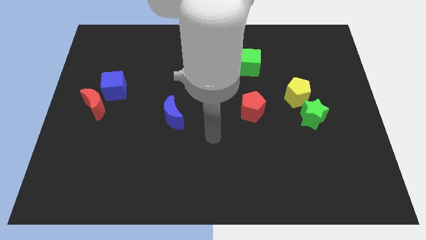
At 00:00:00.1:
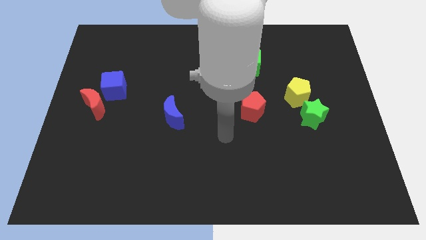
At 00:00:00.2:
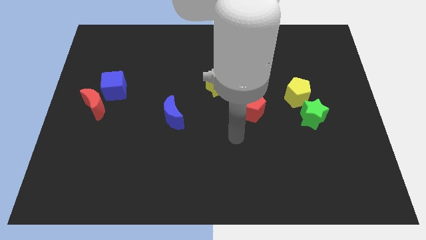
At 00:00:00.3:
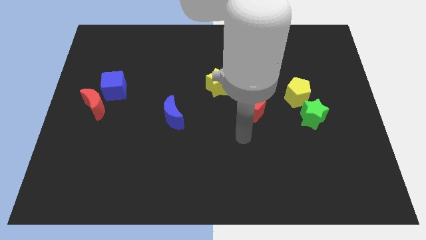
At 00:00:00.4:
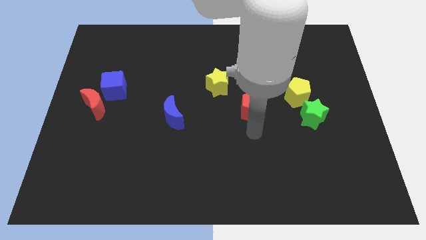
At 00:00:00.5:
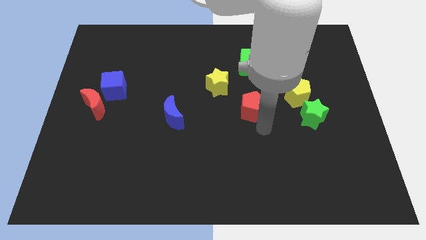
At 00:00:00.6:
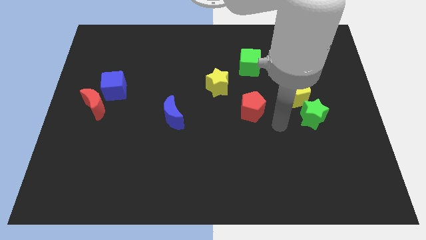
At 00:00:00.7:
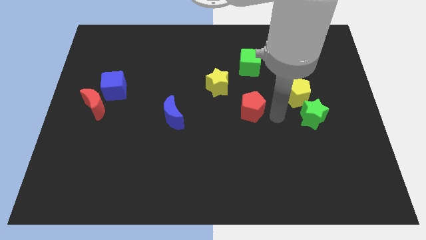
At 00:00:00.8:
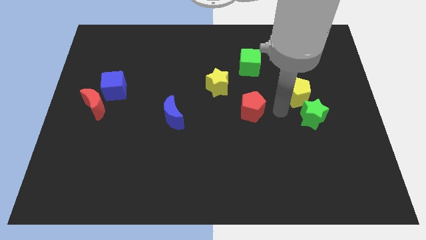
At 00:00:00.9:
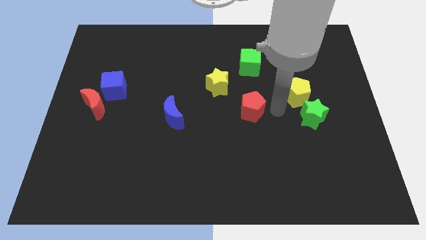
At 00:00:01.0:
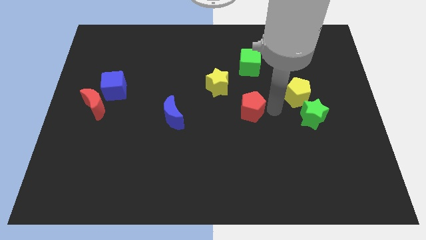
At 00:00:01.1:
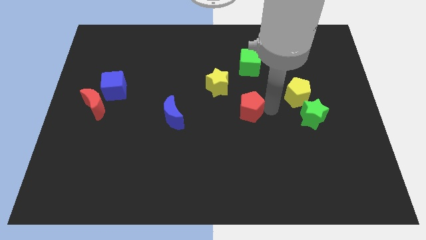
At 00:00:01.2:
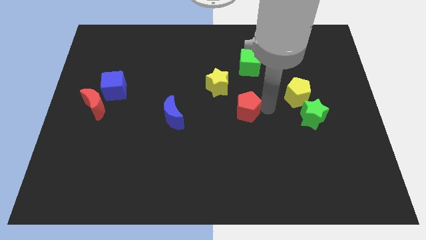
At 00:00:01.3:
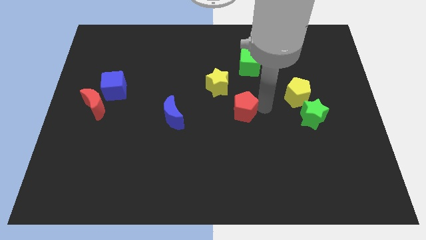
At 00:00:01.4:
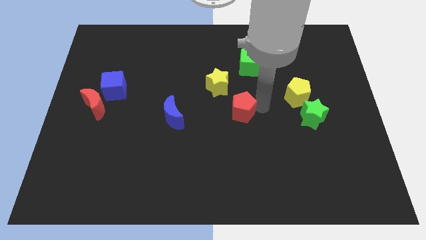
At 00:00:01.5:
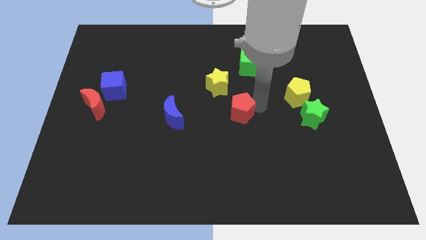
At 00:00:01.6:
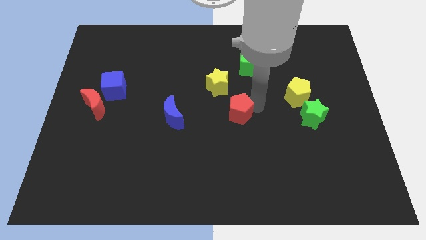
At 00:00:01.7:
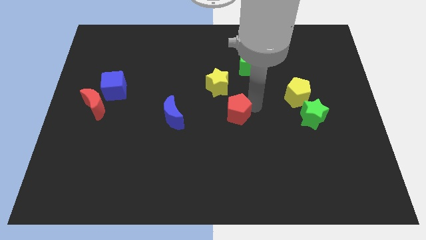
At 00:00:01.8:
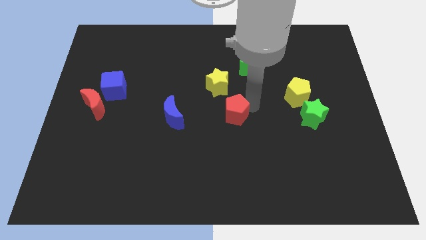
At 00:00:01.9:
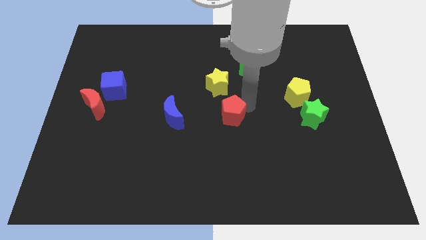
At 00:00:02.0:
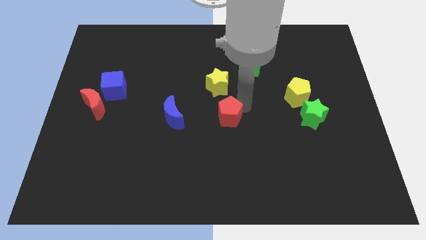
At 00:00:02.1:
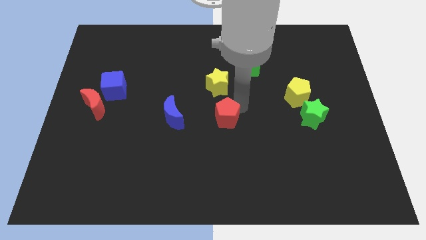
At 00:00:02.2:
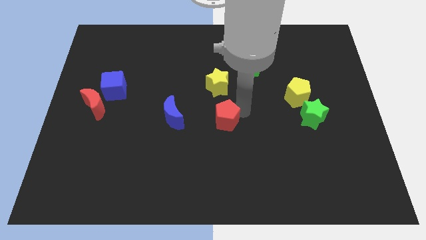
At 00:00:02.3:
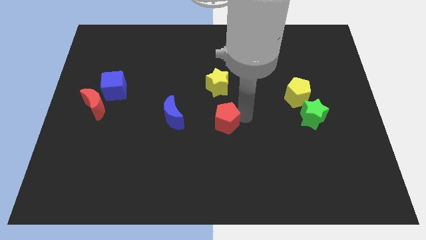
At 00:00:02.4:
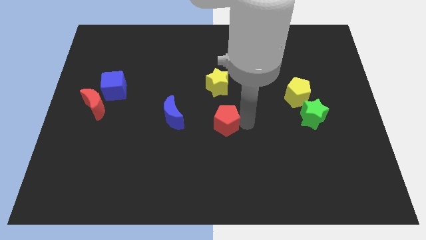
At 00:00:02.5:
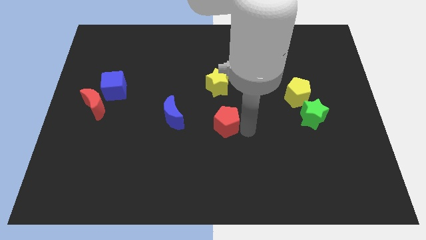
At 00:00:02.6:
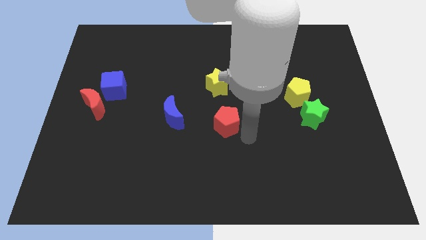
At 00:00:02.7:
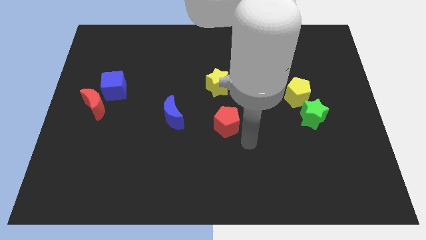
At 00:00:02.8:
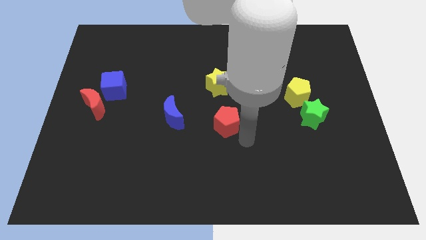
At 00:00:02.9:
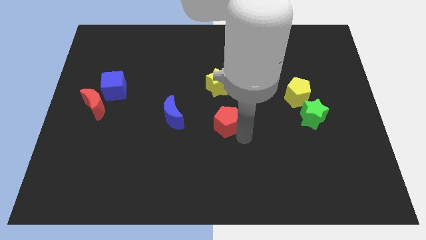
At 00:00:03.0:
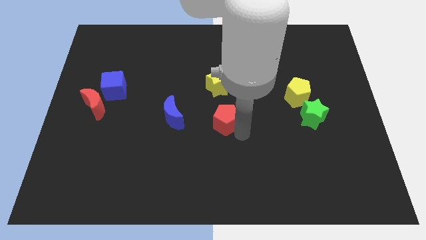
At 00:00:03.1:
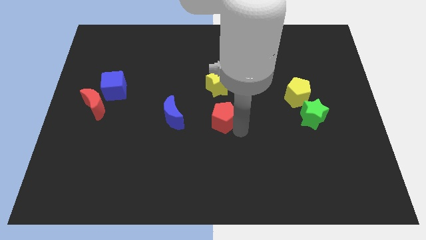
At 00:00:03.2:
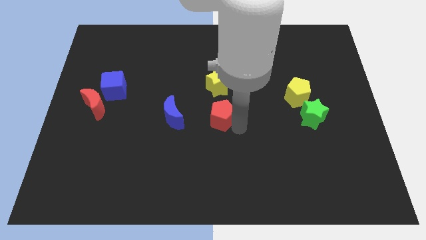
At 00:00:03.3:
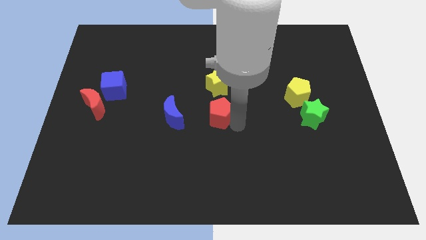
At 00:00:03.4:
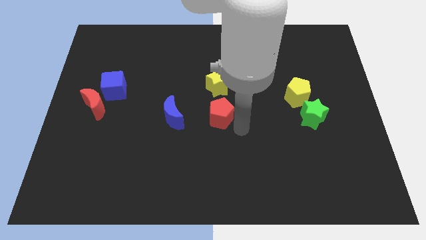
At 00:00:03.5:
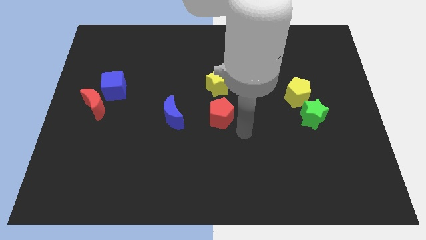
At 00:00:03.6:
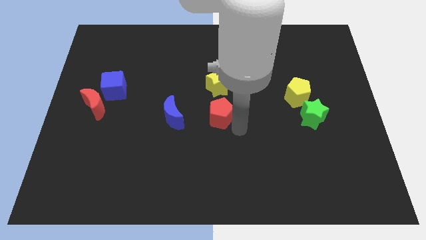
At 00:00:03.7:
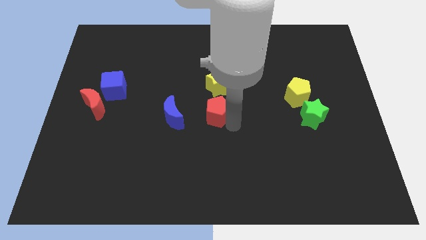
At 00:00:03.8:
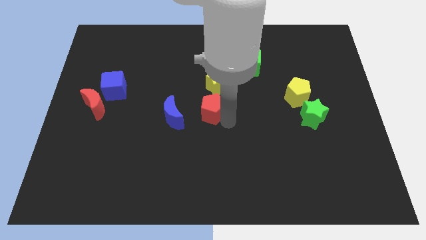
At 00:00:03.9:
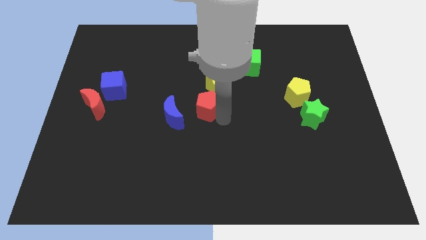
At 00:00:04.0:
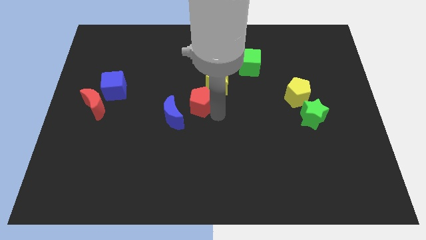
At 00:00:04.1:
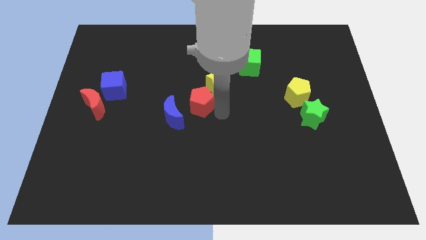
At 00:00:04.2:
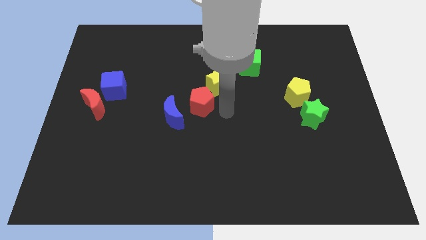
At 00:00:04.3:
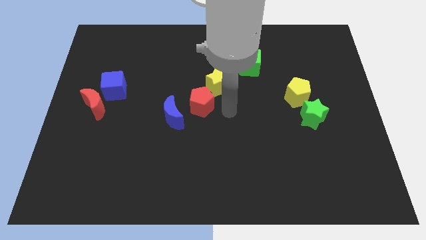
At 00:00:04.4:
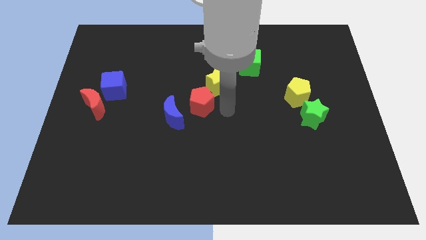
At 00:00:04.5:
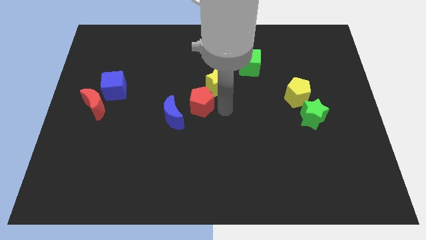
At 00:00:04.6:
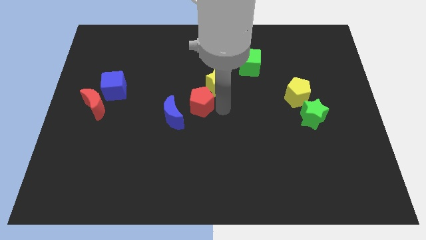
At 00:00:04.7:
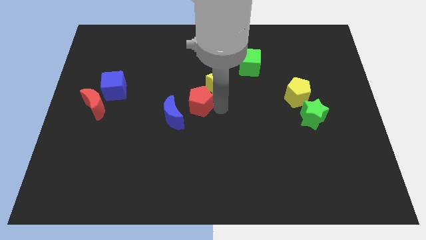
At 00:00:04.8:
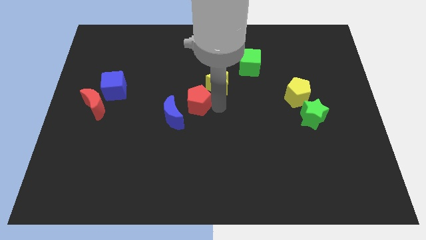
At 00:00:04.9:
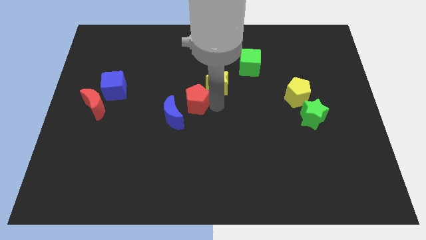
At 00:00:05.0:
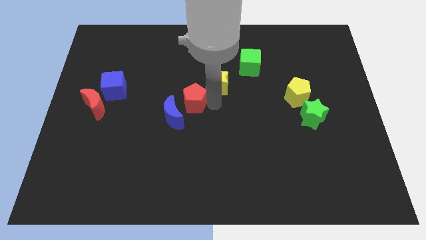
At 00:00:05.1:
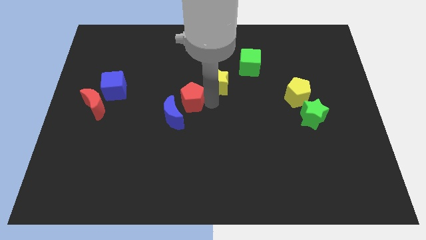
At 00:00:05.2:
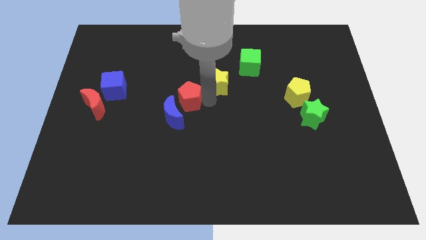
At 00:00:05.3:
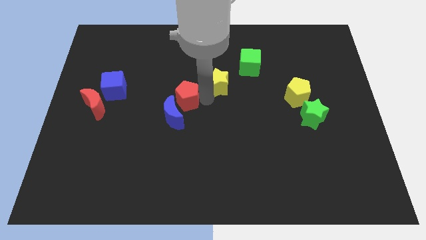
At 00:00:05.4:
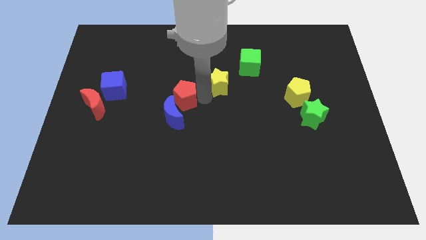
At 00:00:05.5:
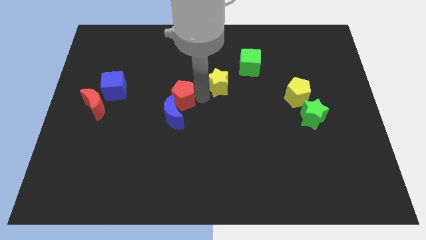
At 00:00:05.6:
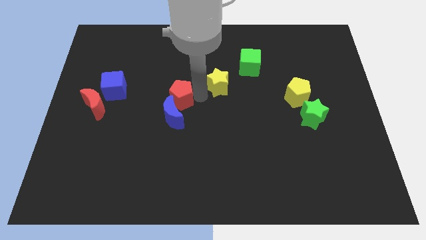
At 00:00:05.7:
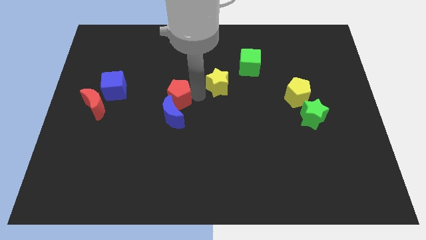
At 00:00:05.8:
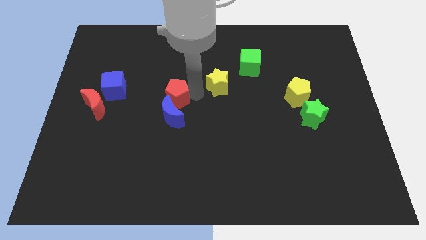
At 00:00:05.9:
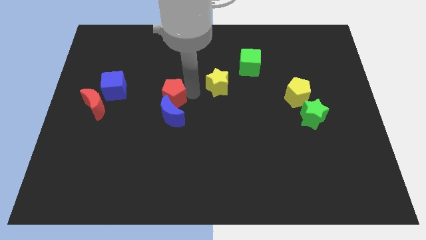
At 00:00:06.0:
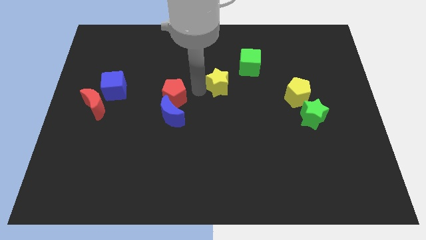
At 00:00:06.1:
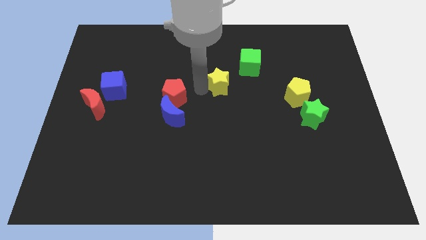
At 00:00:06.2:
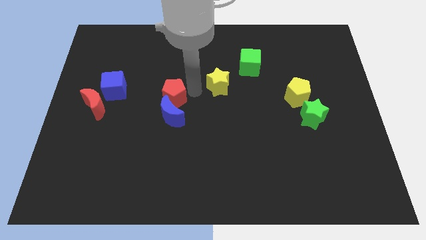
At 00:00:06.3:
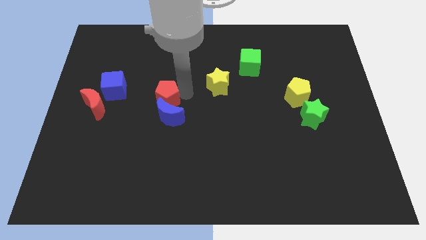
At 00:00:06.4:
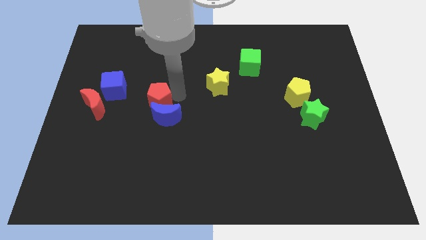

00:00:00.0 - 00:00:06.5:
move the red pentagon left

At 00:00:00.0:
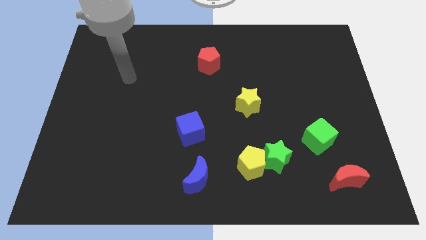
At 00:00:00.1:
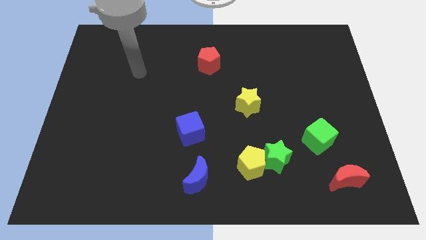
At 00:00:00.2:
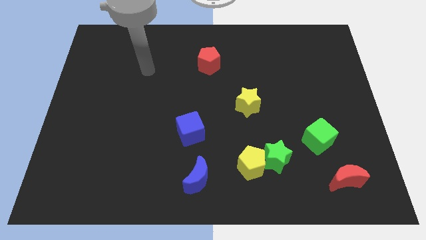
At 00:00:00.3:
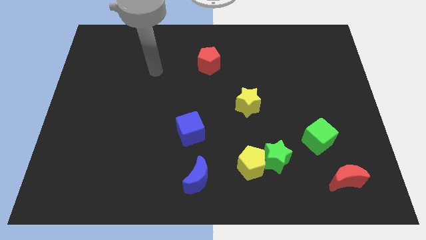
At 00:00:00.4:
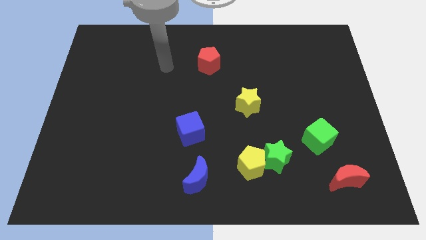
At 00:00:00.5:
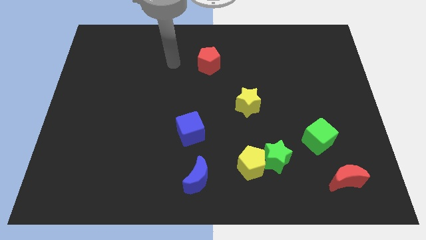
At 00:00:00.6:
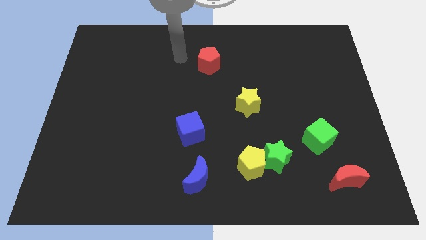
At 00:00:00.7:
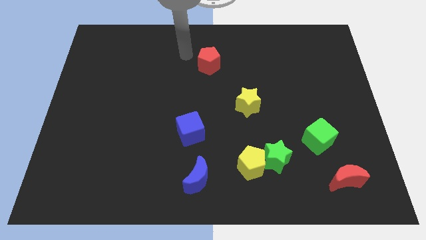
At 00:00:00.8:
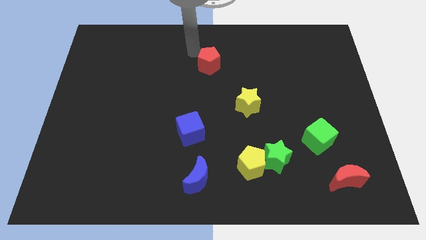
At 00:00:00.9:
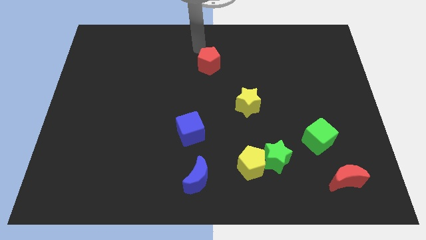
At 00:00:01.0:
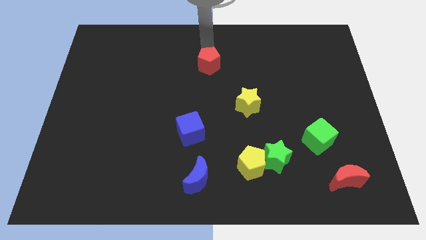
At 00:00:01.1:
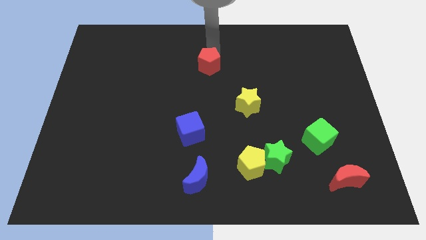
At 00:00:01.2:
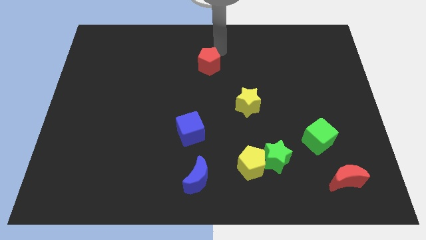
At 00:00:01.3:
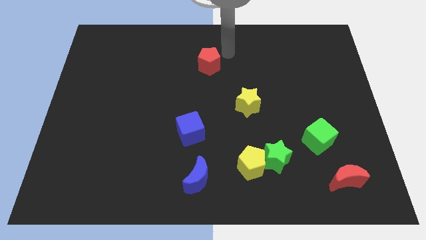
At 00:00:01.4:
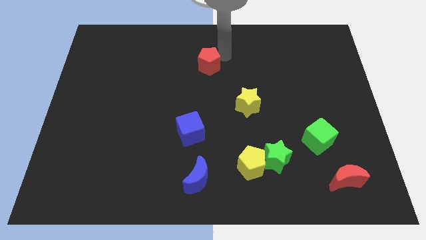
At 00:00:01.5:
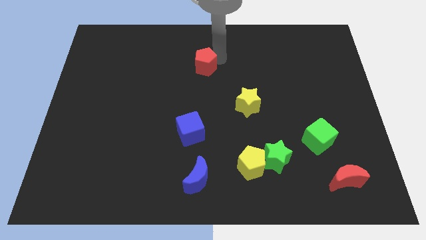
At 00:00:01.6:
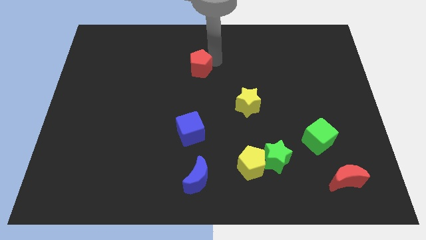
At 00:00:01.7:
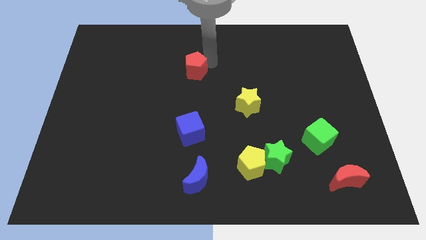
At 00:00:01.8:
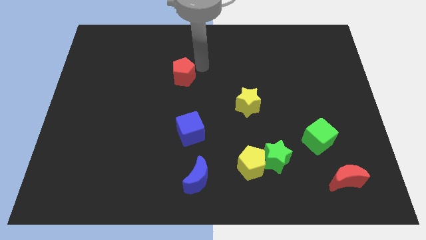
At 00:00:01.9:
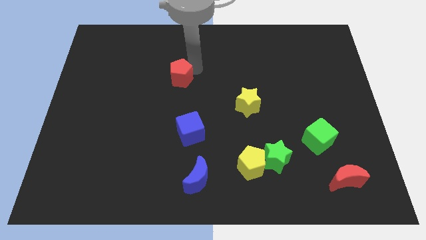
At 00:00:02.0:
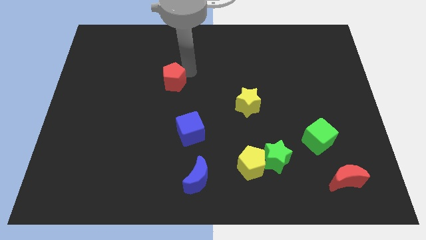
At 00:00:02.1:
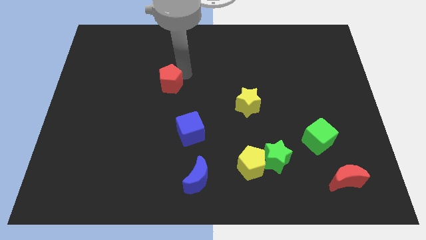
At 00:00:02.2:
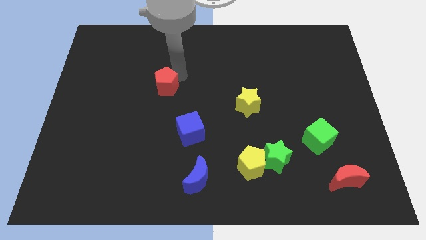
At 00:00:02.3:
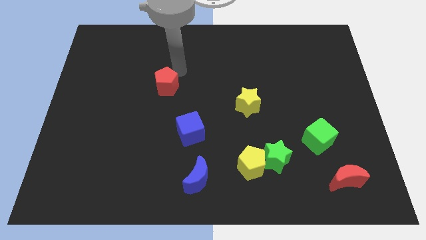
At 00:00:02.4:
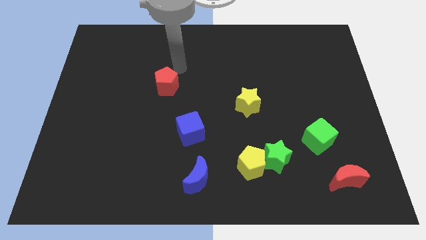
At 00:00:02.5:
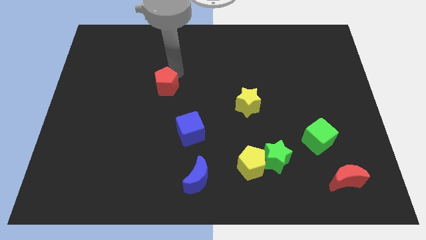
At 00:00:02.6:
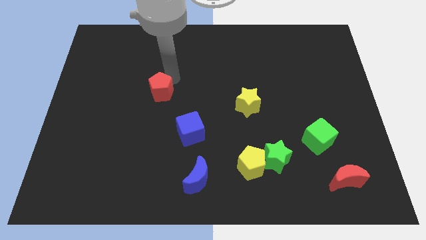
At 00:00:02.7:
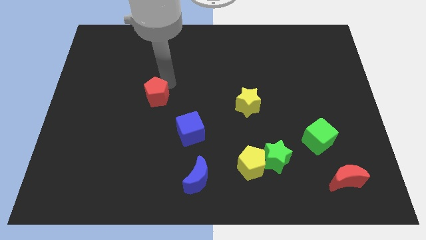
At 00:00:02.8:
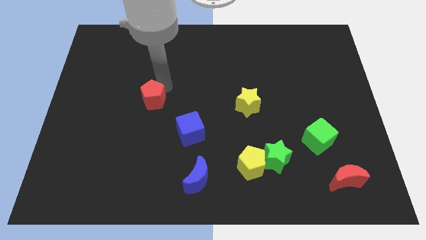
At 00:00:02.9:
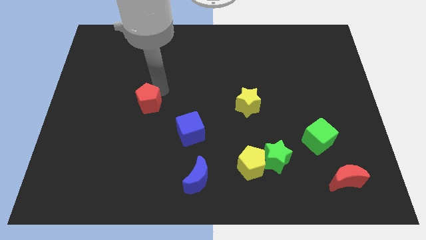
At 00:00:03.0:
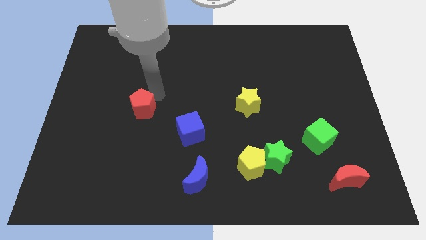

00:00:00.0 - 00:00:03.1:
push the red pentagon downwards and then left
